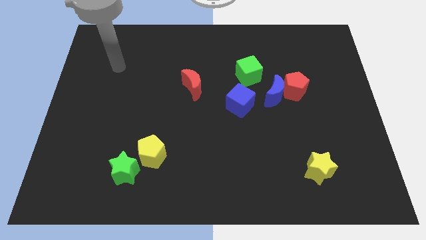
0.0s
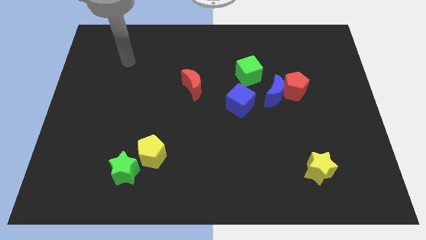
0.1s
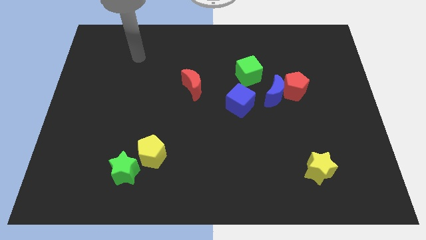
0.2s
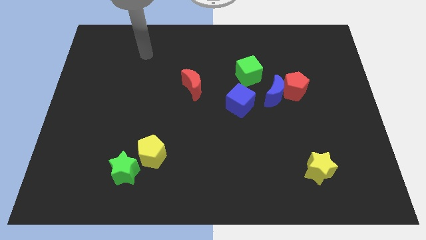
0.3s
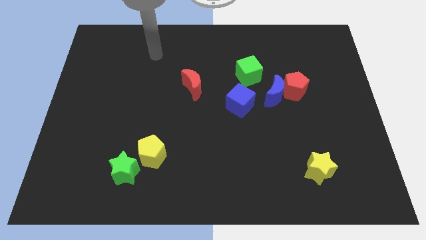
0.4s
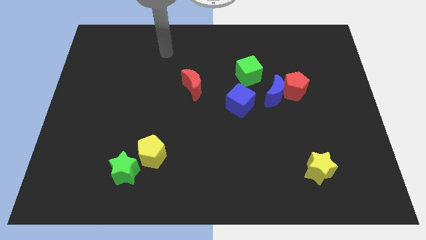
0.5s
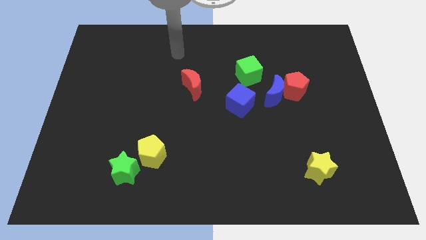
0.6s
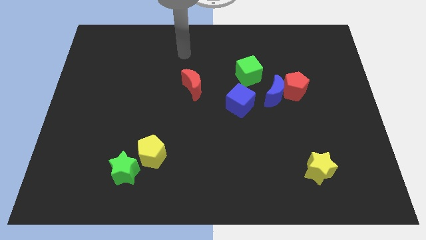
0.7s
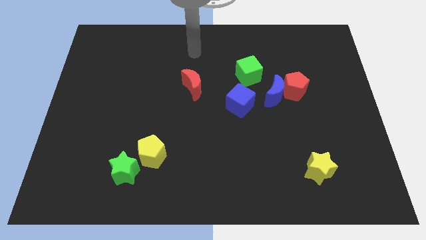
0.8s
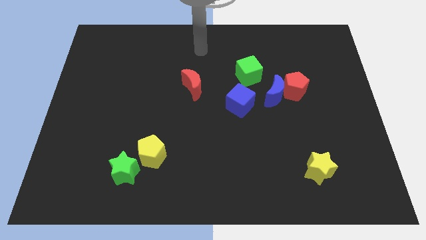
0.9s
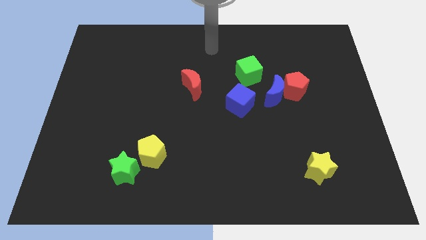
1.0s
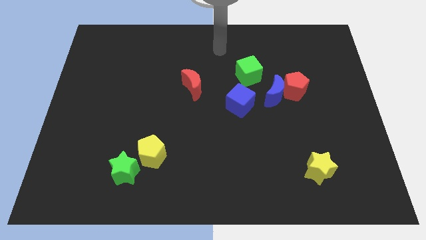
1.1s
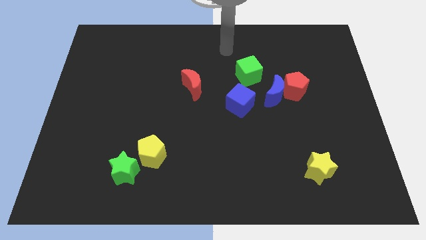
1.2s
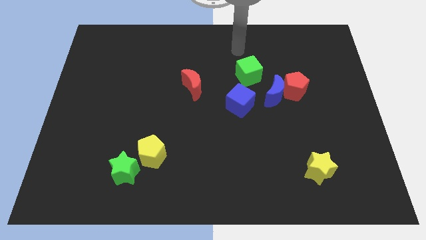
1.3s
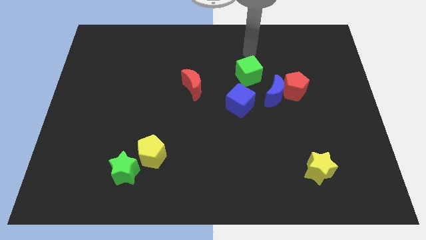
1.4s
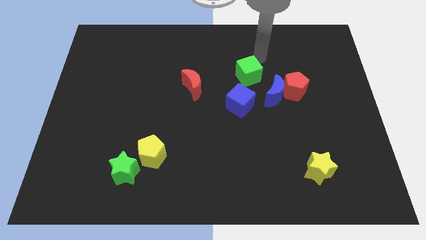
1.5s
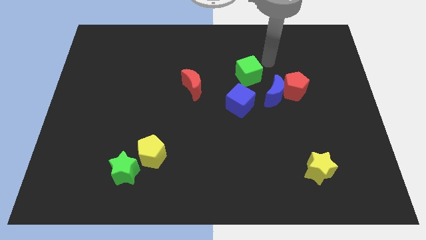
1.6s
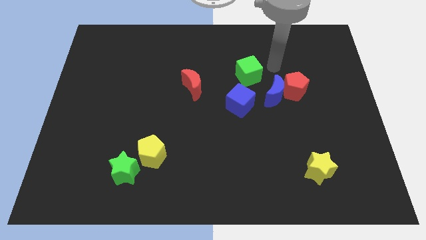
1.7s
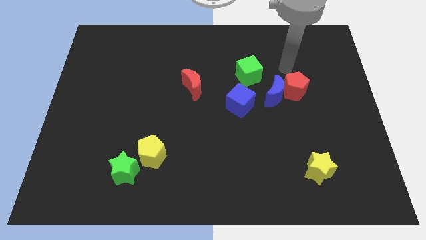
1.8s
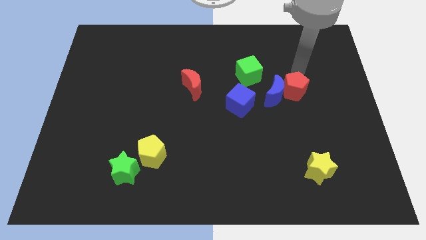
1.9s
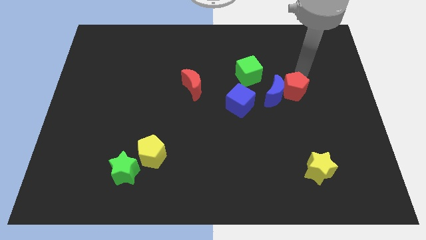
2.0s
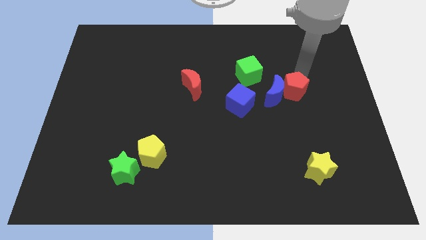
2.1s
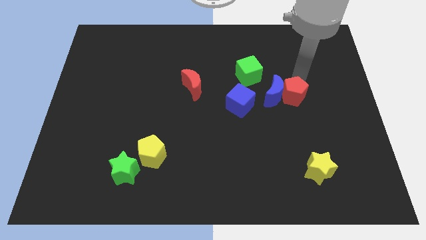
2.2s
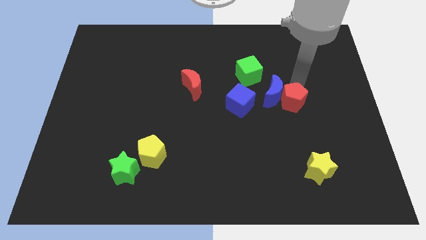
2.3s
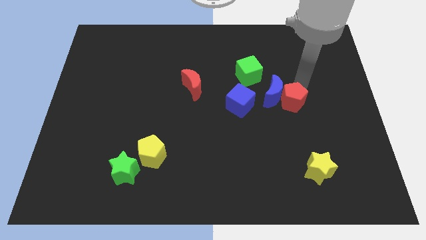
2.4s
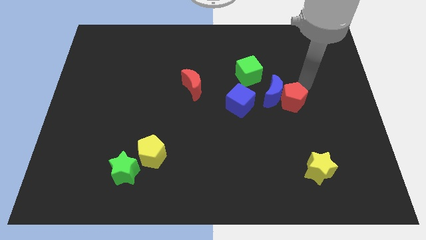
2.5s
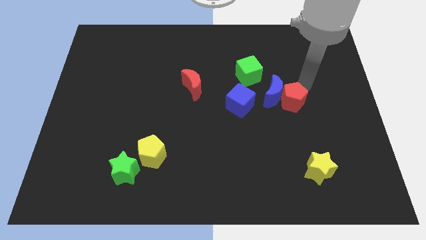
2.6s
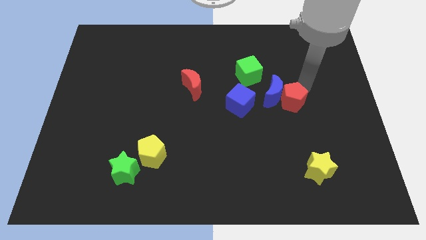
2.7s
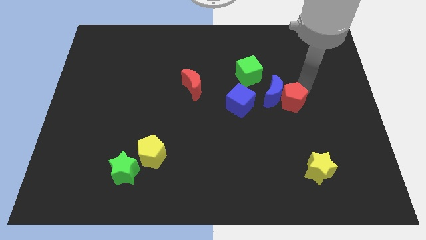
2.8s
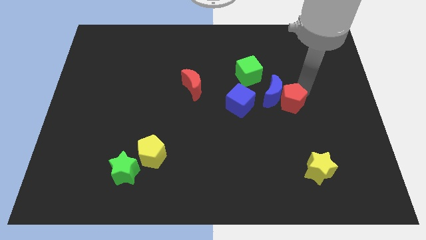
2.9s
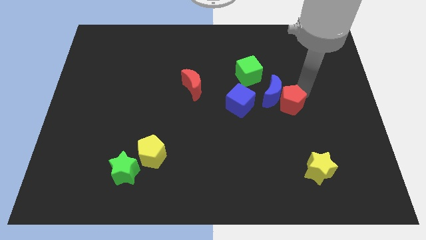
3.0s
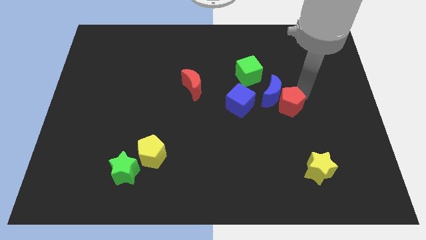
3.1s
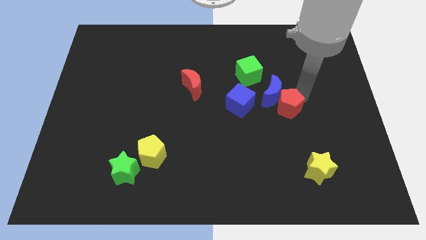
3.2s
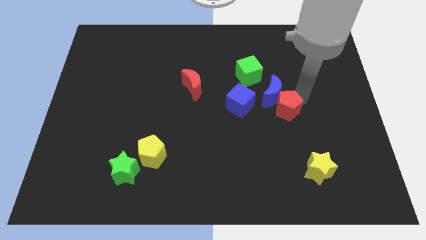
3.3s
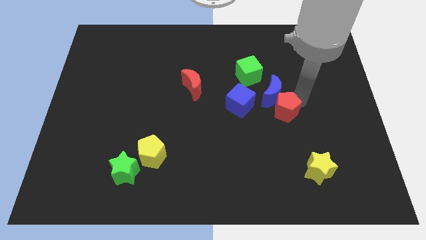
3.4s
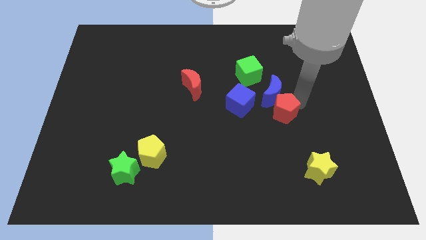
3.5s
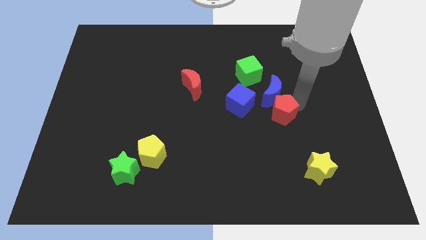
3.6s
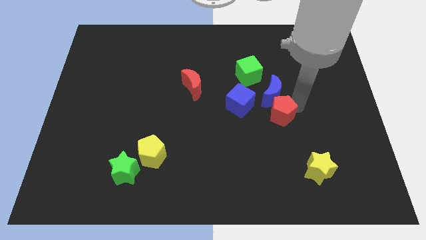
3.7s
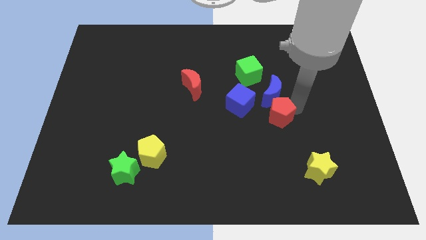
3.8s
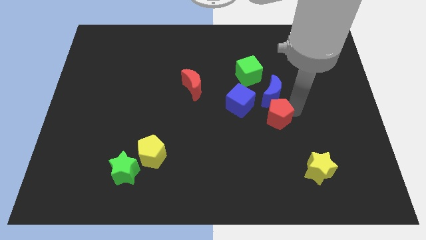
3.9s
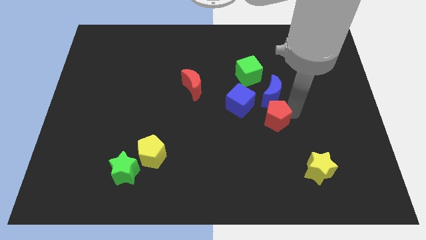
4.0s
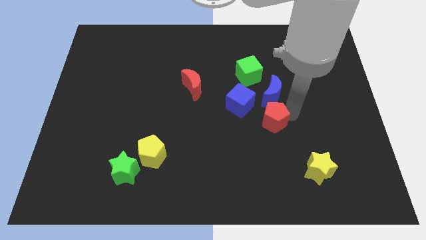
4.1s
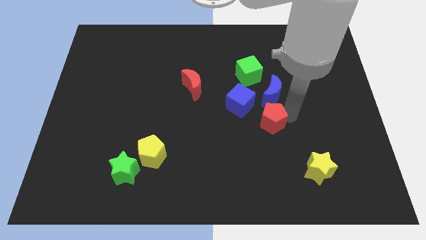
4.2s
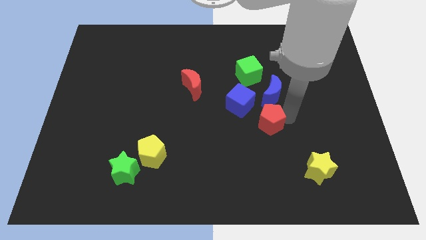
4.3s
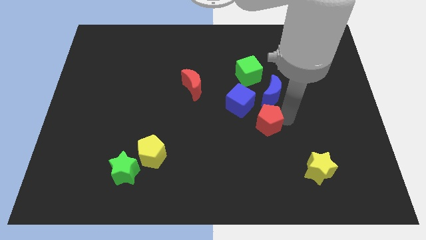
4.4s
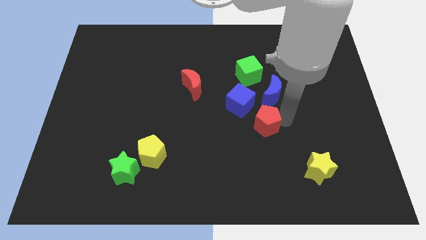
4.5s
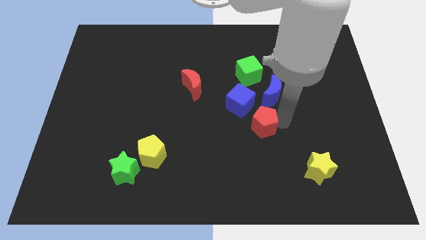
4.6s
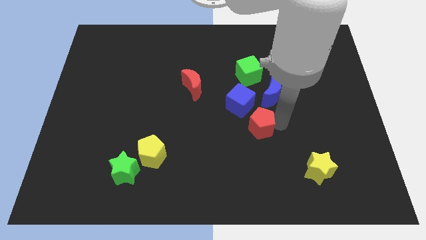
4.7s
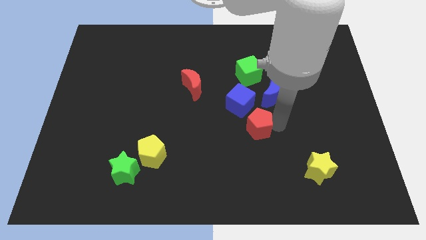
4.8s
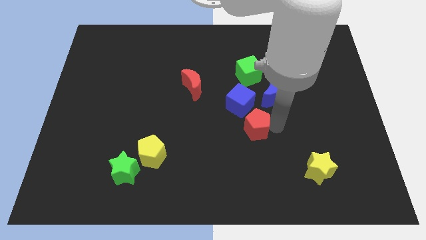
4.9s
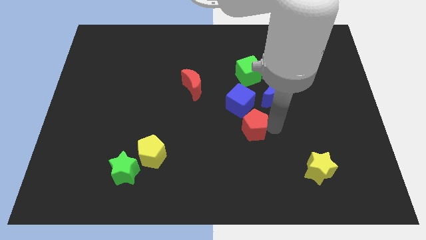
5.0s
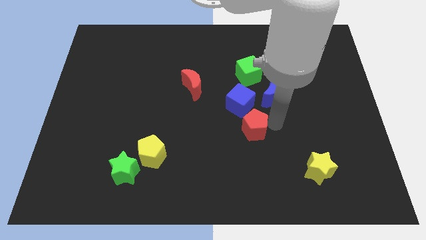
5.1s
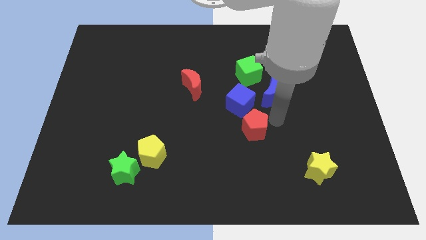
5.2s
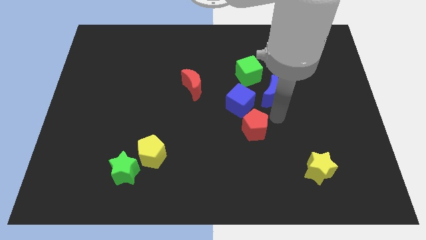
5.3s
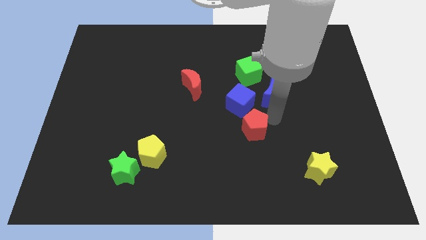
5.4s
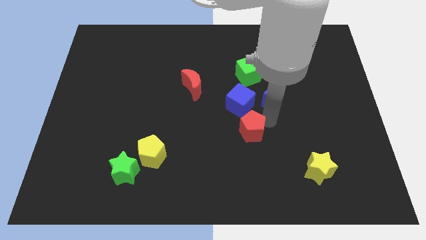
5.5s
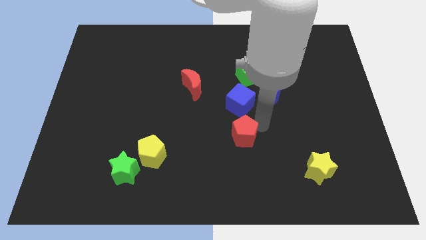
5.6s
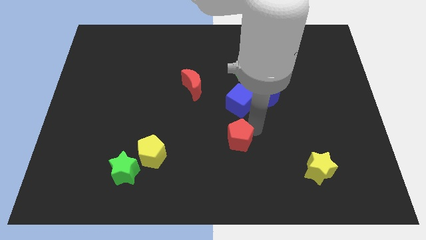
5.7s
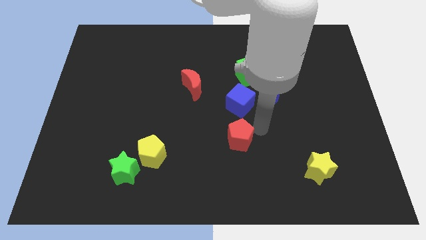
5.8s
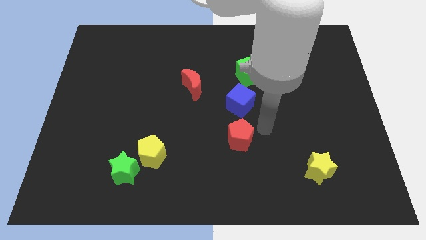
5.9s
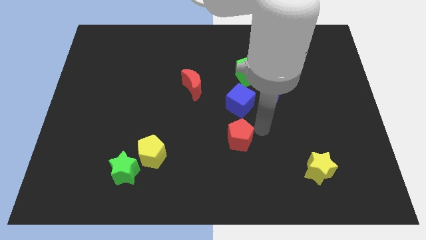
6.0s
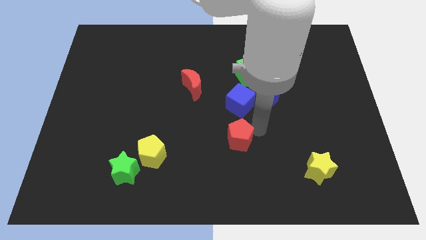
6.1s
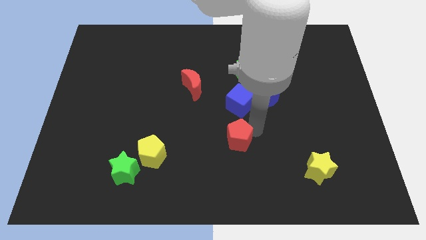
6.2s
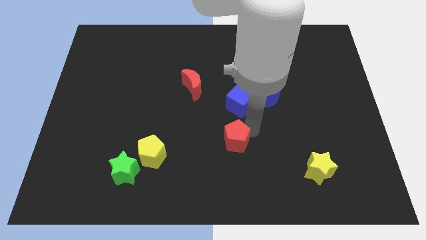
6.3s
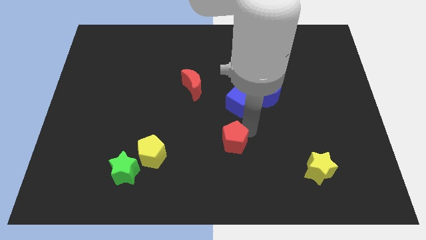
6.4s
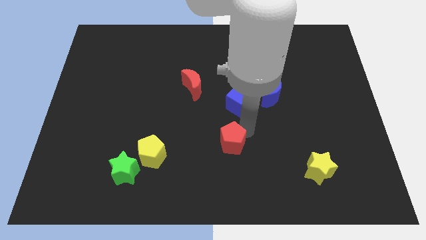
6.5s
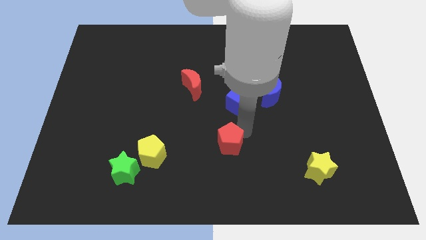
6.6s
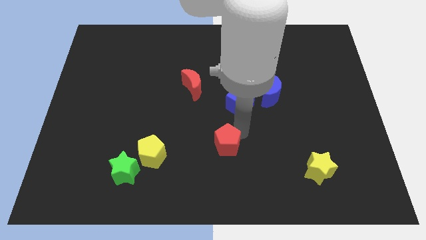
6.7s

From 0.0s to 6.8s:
put the red pentagon to the right side of the yellow pentagon

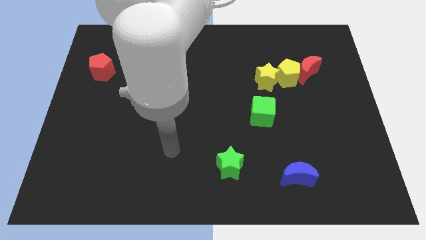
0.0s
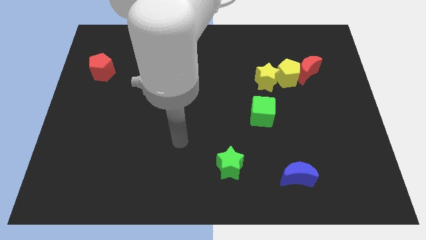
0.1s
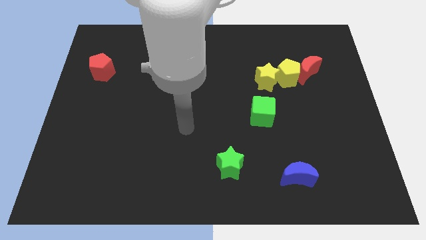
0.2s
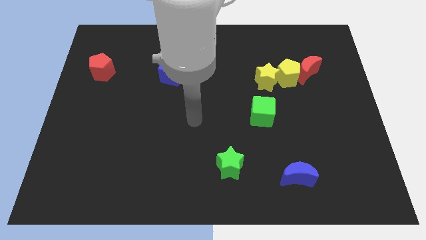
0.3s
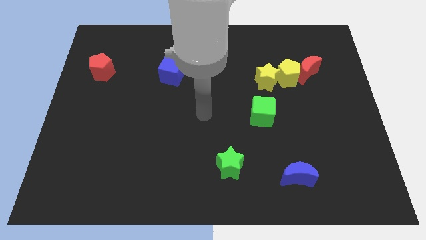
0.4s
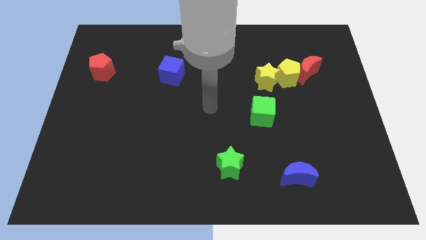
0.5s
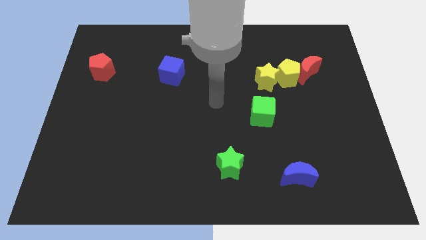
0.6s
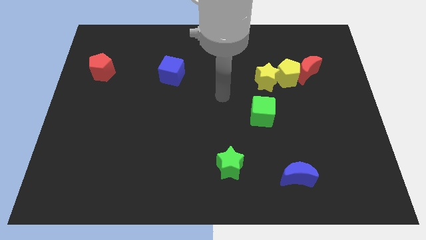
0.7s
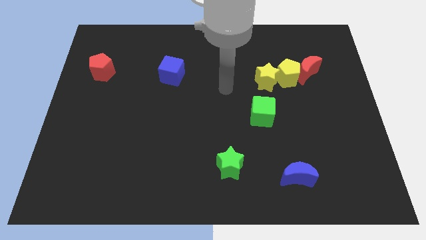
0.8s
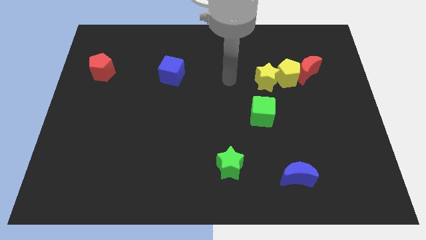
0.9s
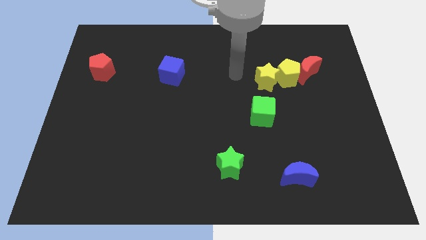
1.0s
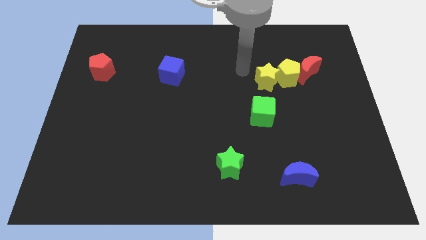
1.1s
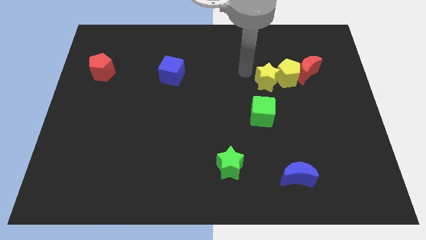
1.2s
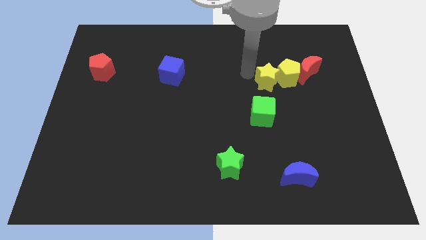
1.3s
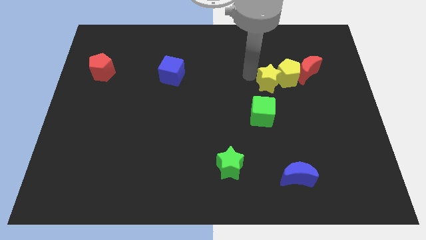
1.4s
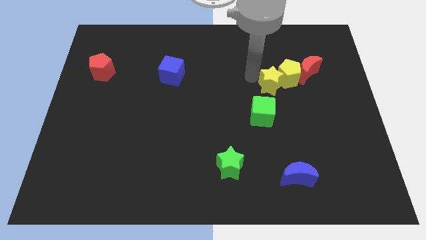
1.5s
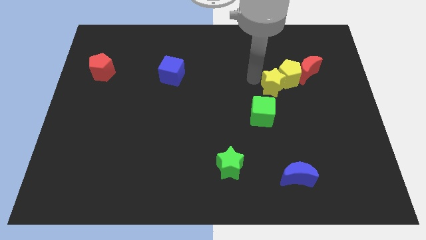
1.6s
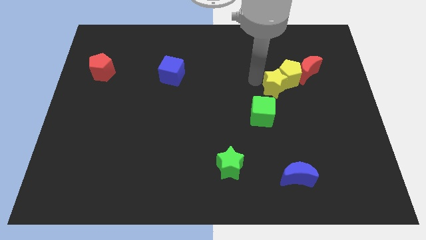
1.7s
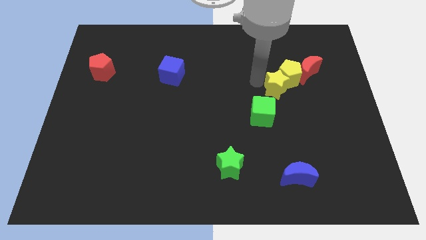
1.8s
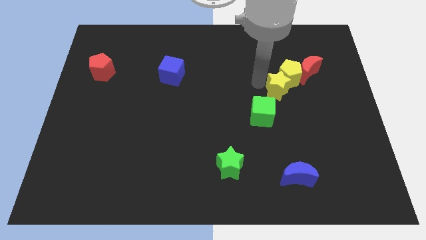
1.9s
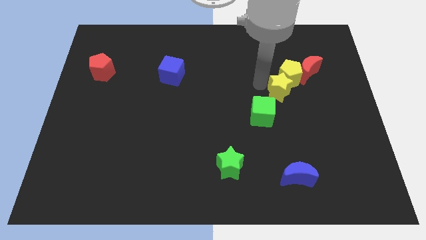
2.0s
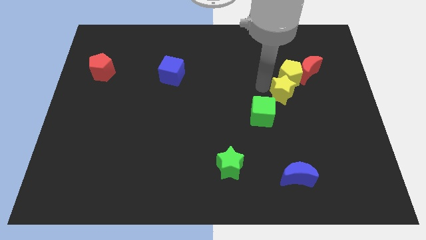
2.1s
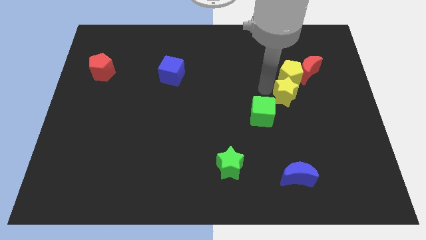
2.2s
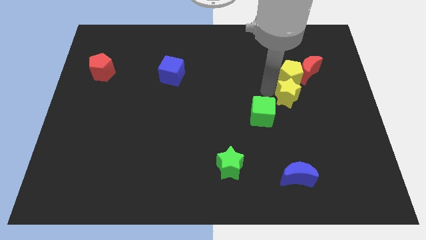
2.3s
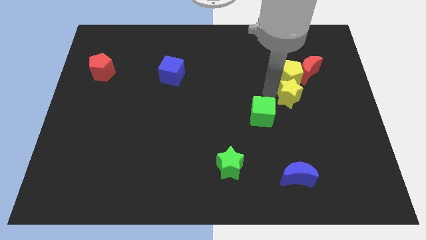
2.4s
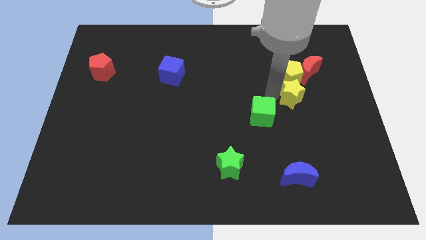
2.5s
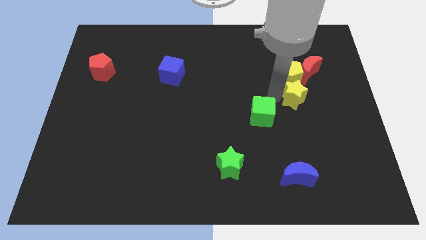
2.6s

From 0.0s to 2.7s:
move the yellow star below the red moon
